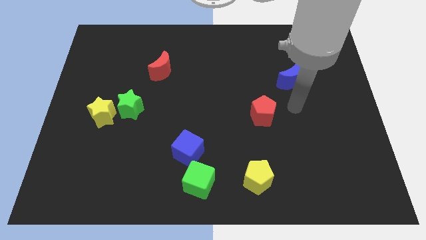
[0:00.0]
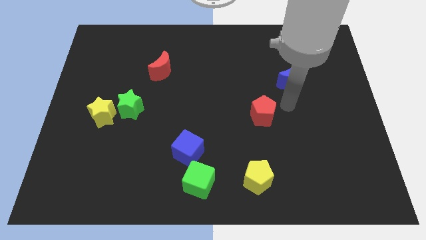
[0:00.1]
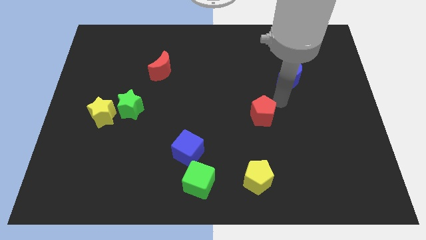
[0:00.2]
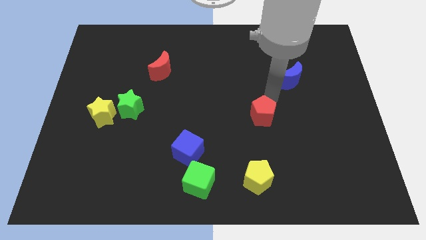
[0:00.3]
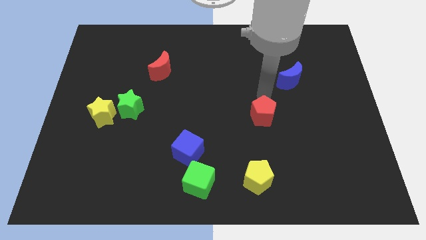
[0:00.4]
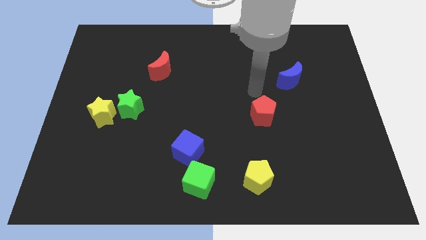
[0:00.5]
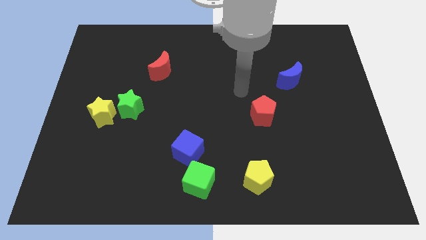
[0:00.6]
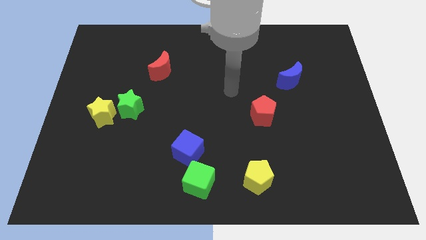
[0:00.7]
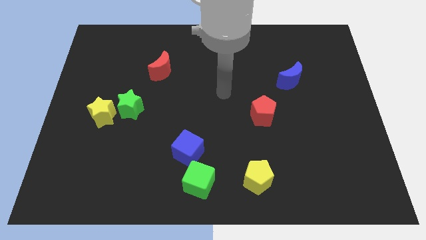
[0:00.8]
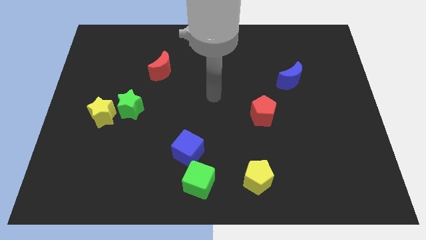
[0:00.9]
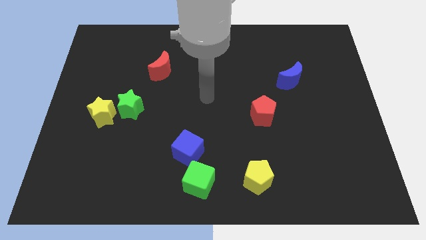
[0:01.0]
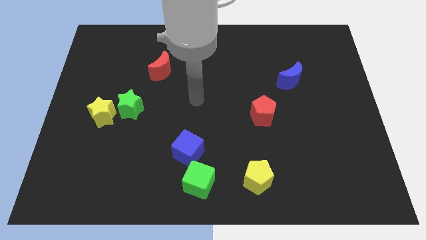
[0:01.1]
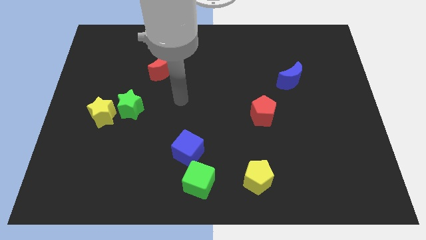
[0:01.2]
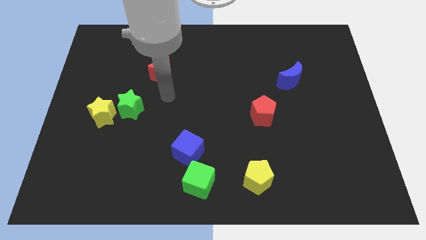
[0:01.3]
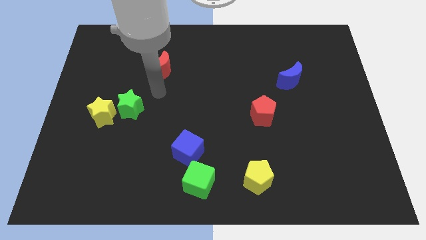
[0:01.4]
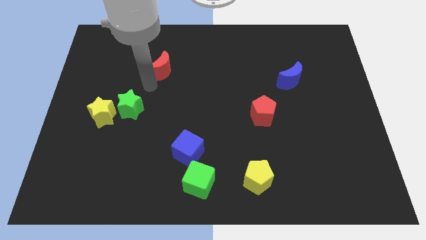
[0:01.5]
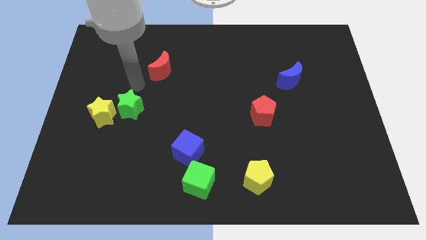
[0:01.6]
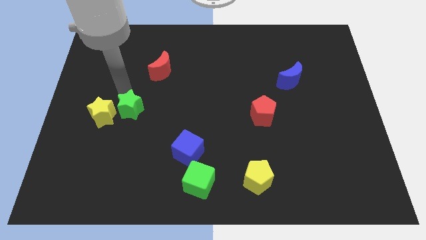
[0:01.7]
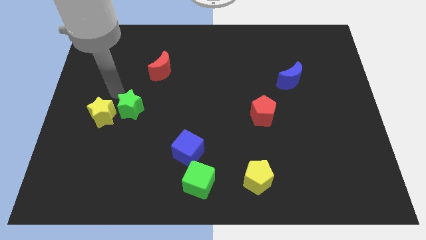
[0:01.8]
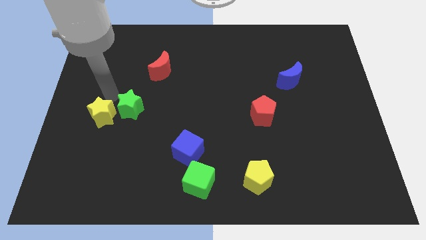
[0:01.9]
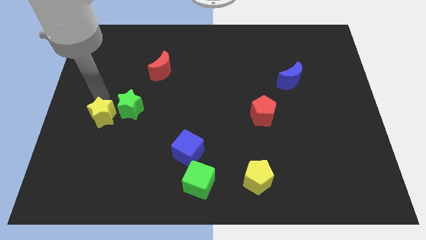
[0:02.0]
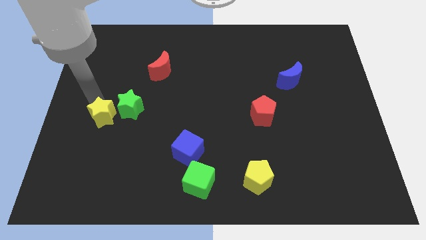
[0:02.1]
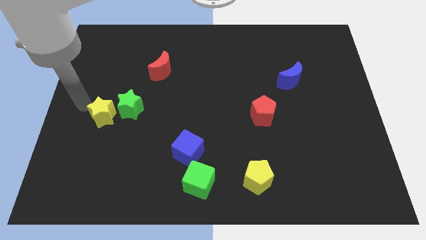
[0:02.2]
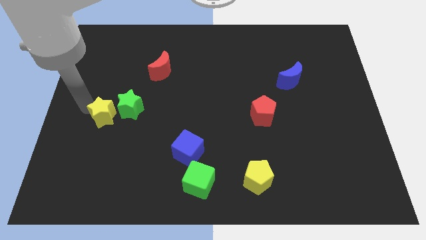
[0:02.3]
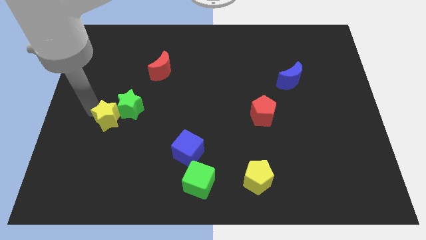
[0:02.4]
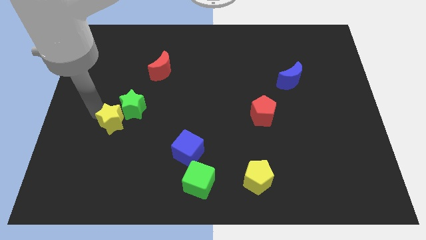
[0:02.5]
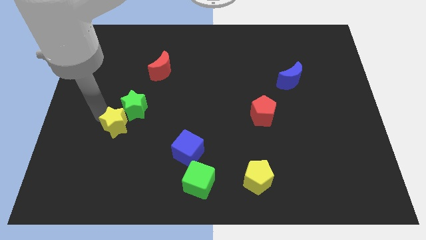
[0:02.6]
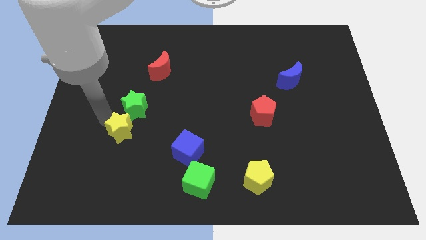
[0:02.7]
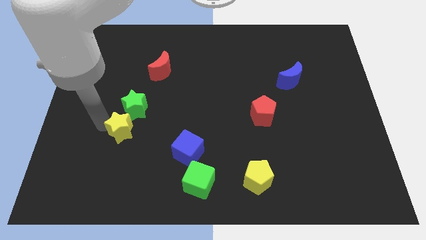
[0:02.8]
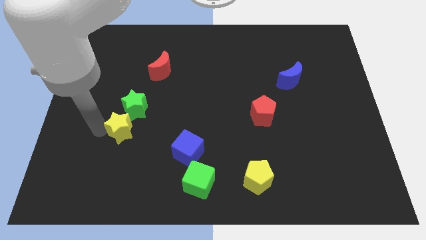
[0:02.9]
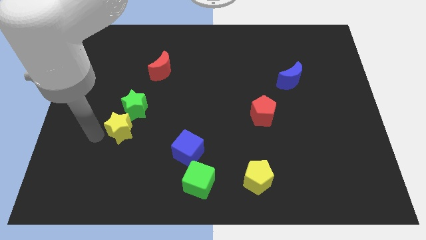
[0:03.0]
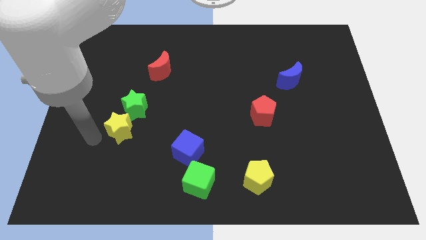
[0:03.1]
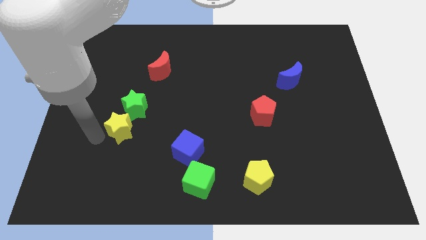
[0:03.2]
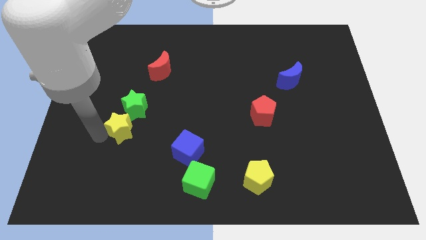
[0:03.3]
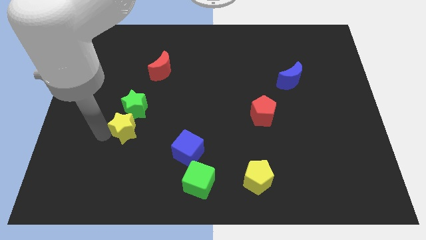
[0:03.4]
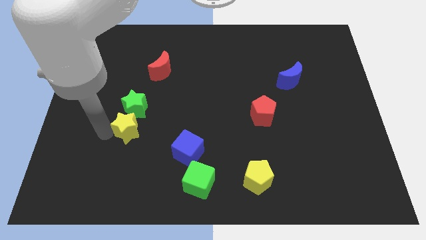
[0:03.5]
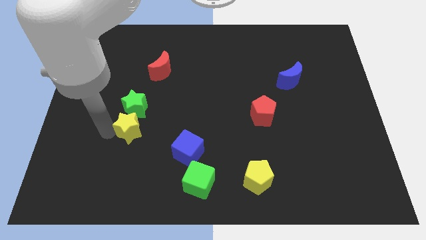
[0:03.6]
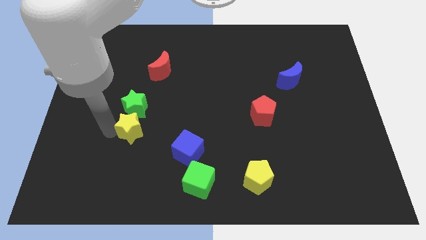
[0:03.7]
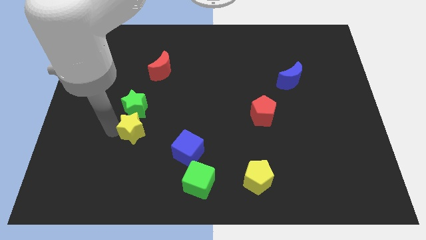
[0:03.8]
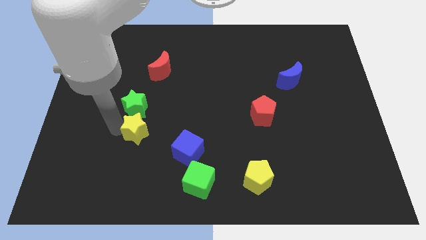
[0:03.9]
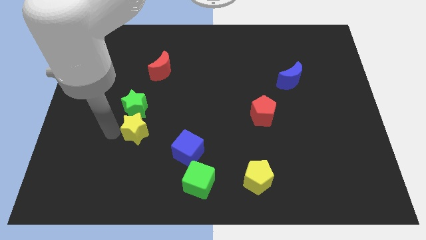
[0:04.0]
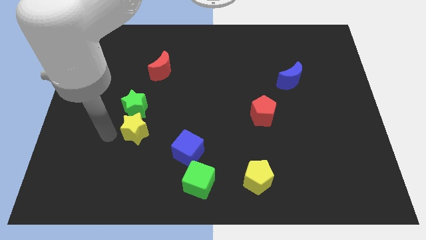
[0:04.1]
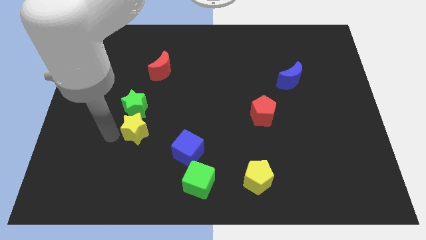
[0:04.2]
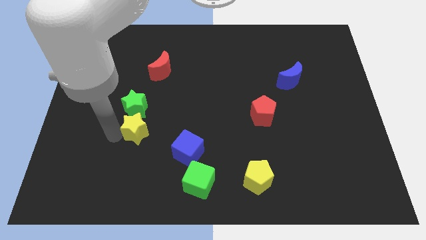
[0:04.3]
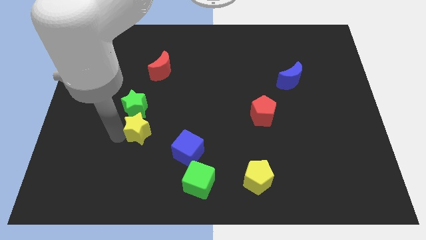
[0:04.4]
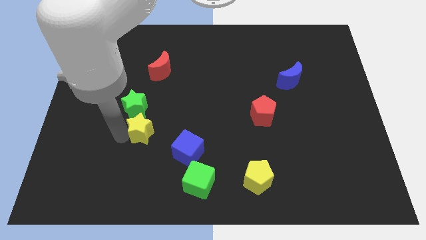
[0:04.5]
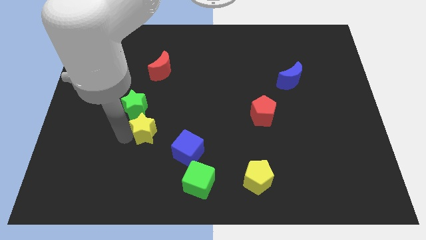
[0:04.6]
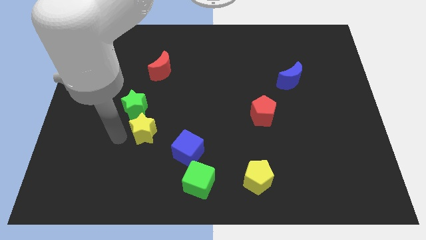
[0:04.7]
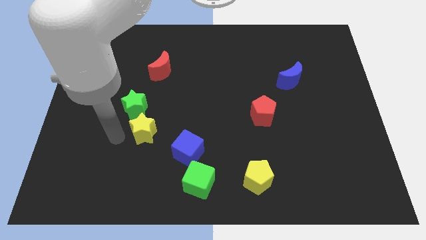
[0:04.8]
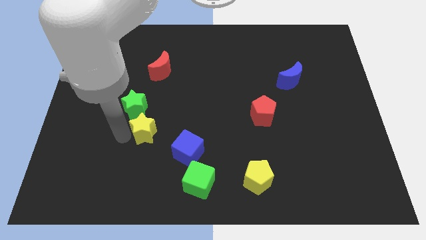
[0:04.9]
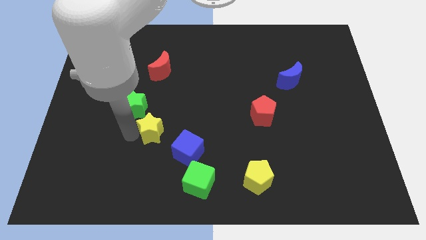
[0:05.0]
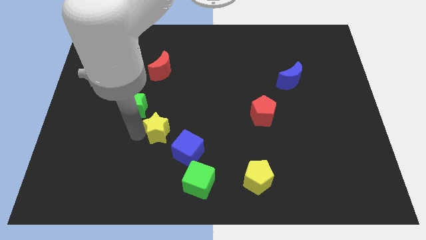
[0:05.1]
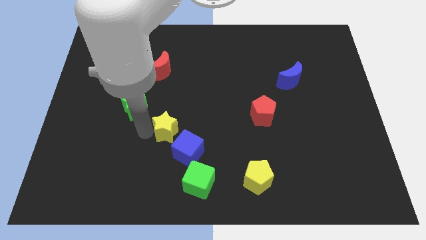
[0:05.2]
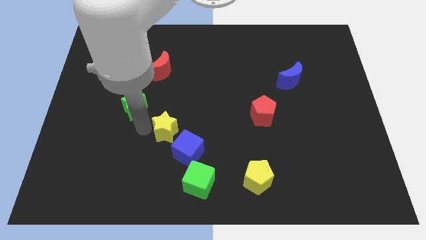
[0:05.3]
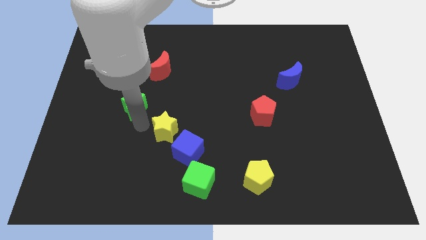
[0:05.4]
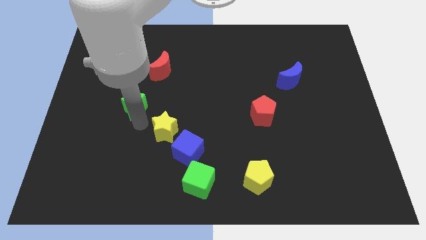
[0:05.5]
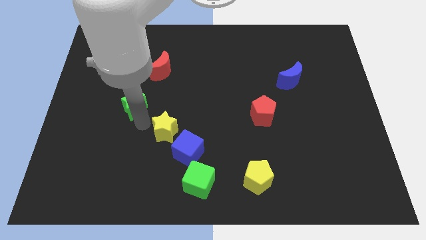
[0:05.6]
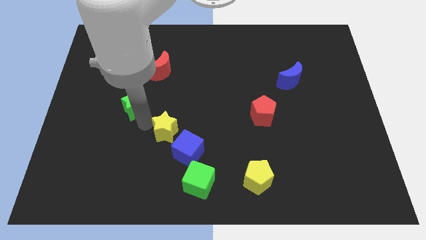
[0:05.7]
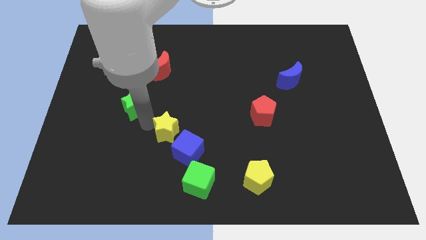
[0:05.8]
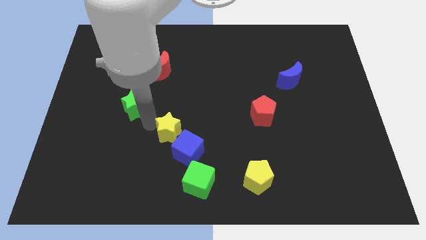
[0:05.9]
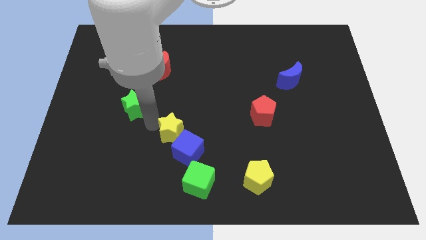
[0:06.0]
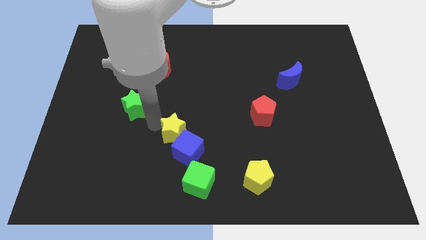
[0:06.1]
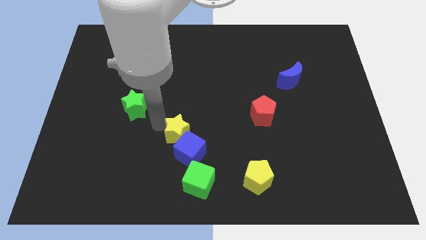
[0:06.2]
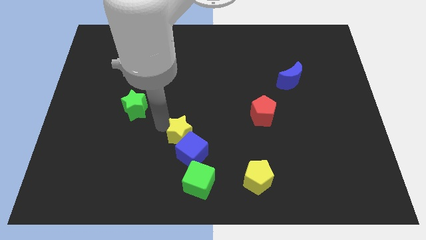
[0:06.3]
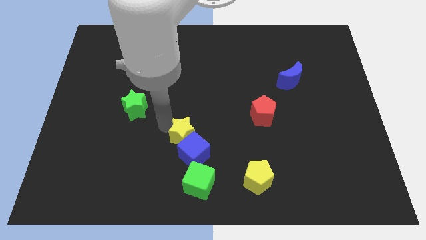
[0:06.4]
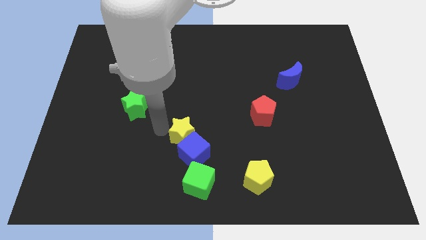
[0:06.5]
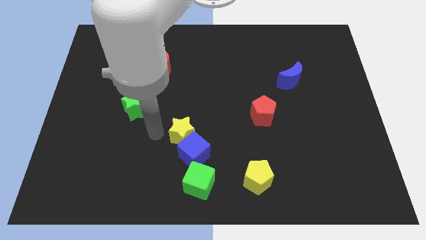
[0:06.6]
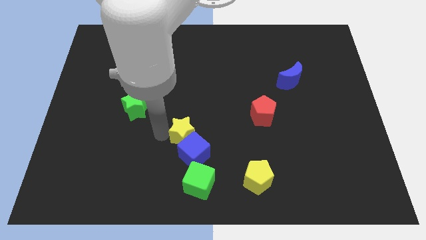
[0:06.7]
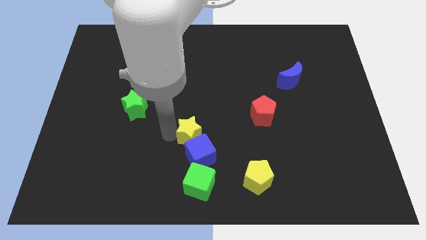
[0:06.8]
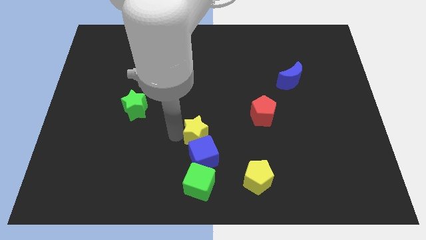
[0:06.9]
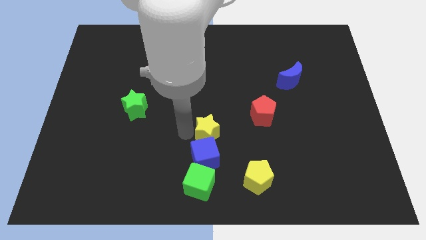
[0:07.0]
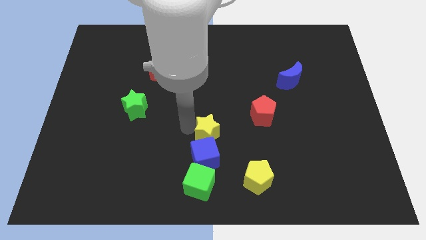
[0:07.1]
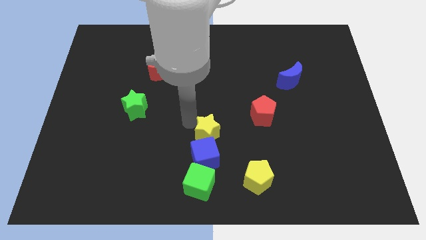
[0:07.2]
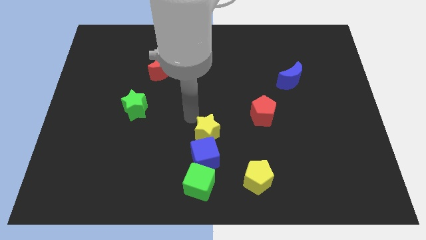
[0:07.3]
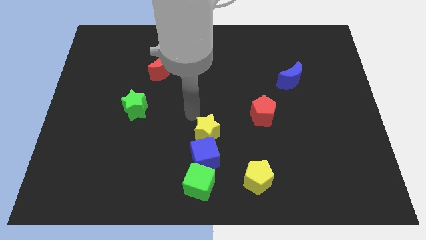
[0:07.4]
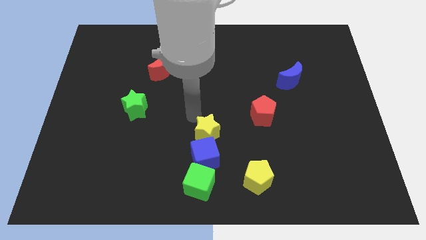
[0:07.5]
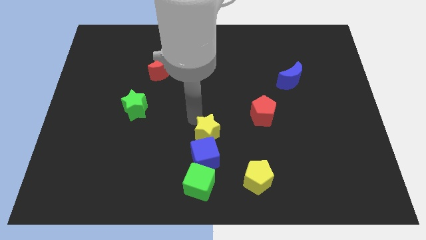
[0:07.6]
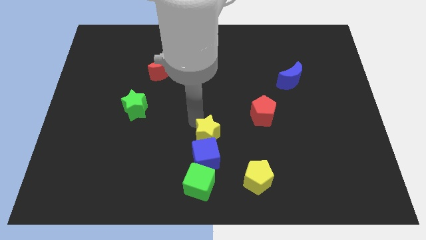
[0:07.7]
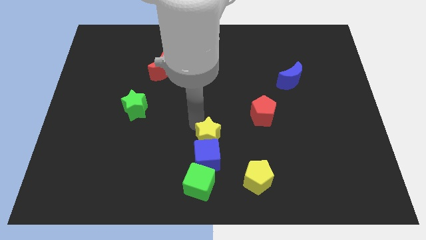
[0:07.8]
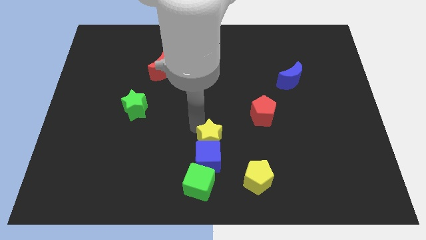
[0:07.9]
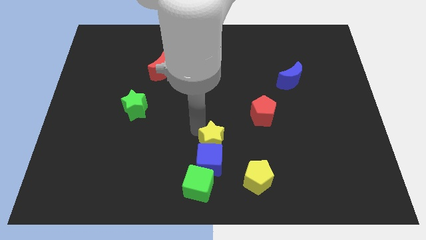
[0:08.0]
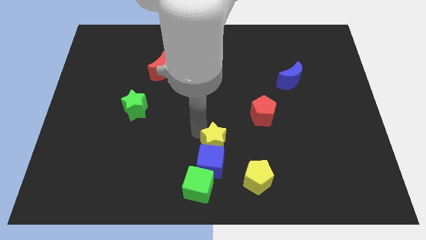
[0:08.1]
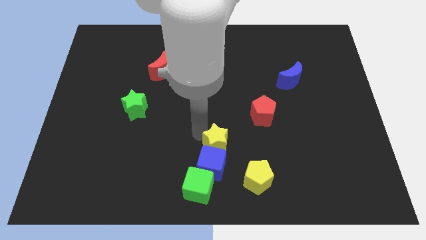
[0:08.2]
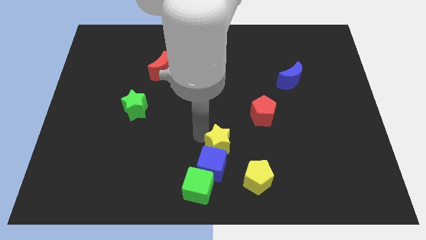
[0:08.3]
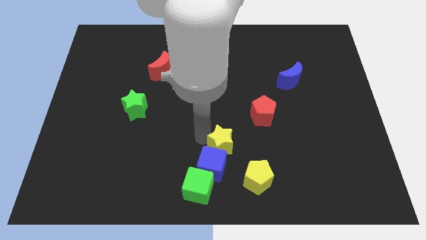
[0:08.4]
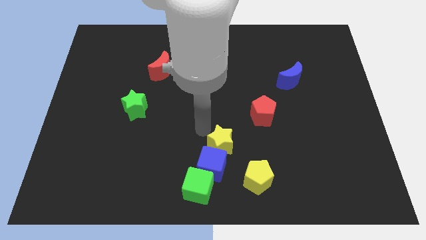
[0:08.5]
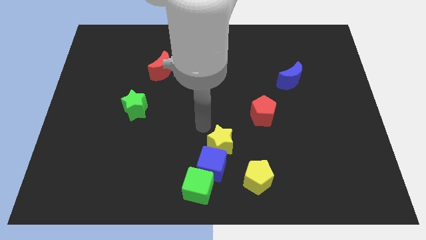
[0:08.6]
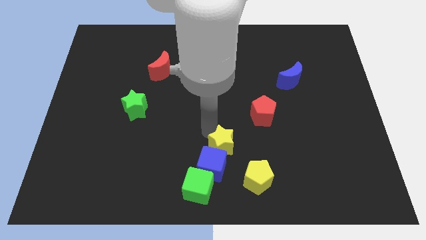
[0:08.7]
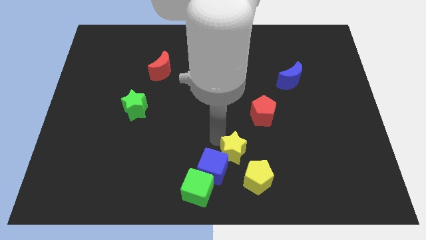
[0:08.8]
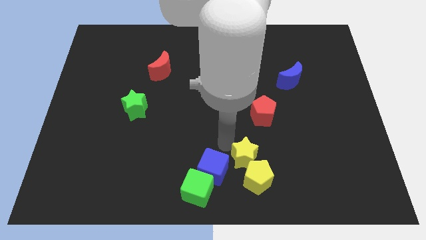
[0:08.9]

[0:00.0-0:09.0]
move the yellow star to the yellow pentagon
